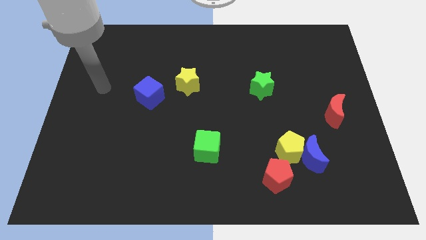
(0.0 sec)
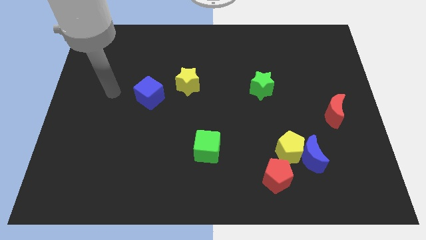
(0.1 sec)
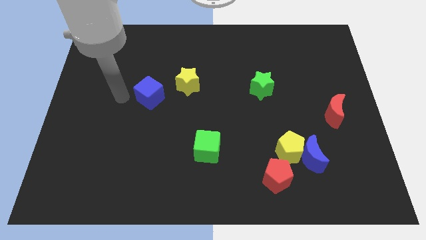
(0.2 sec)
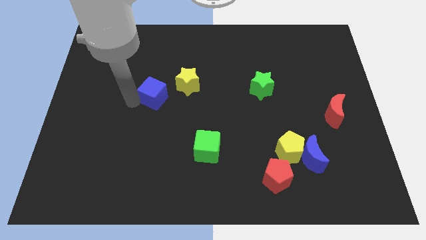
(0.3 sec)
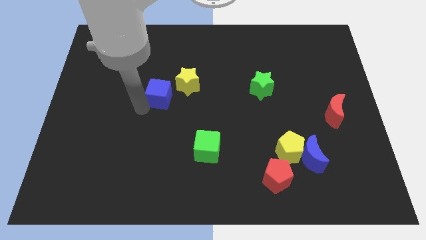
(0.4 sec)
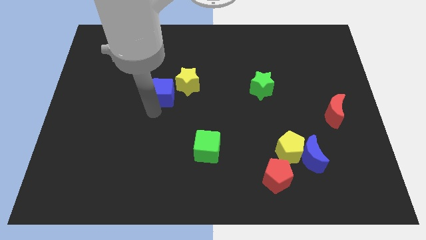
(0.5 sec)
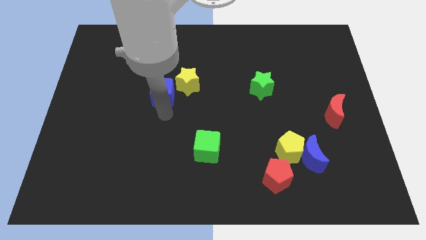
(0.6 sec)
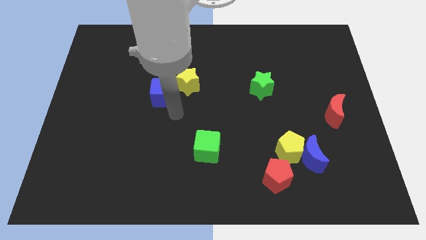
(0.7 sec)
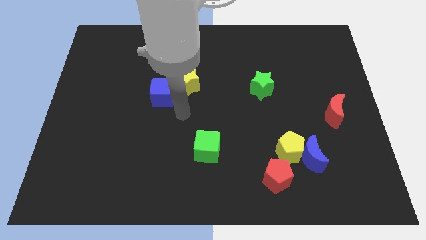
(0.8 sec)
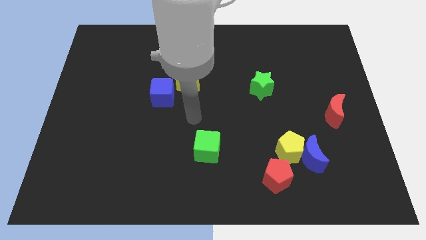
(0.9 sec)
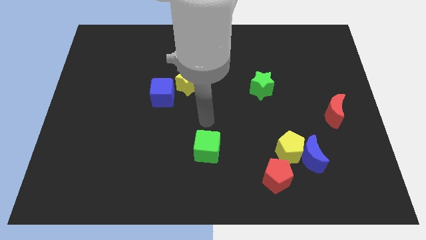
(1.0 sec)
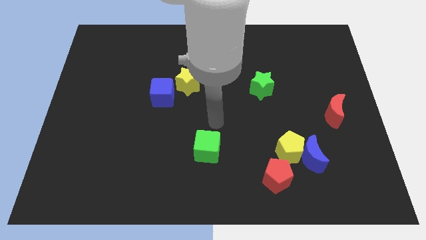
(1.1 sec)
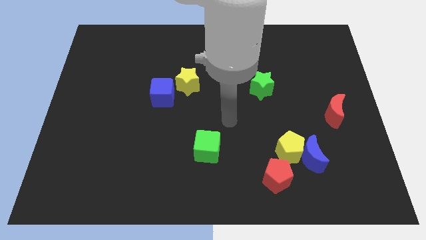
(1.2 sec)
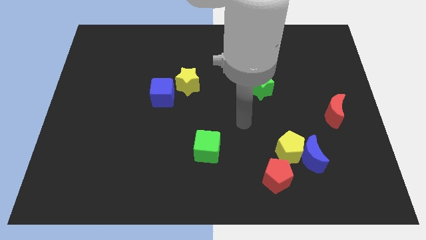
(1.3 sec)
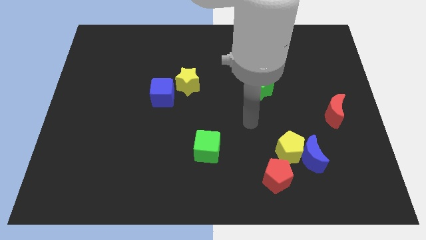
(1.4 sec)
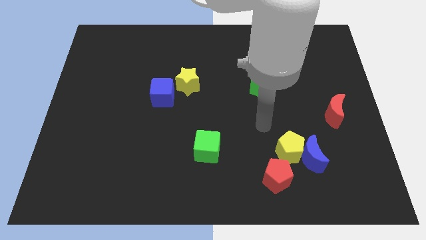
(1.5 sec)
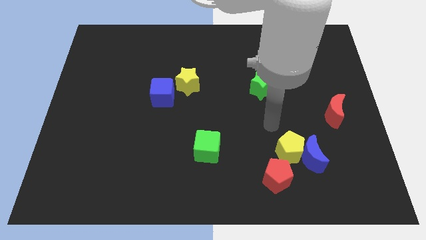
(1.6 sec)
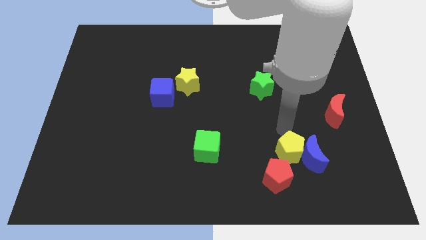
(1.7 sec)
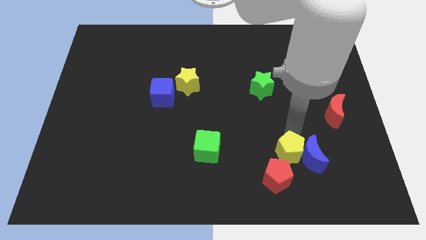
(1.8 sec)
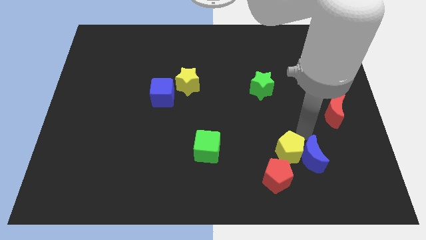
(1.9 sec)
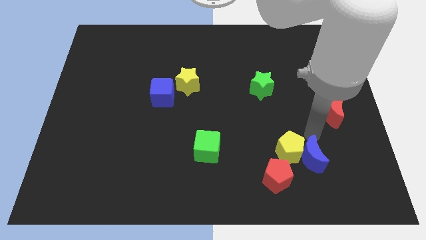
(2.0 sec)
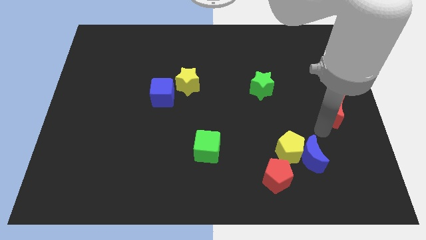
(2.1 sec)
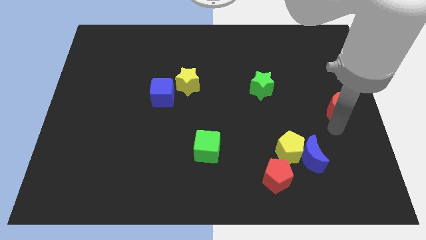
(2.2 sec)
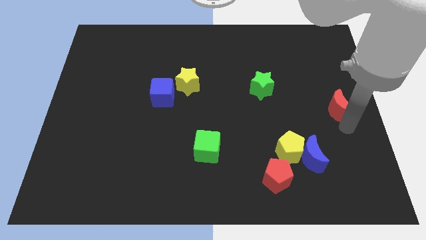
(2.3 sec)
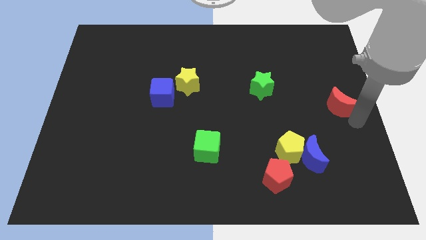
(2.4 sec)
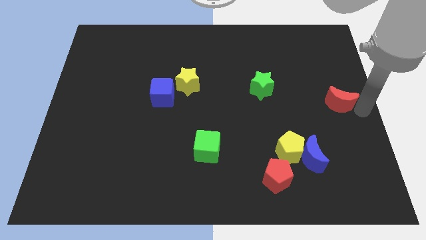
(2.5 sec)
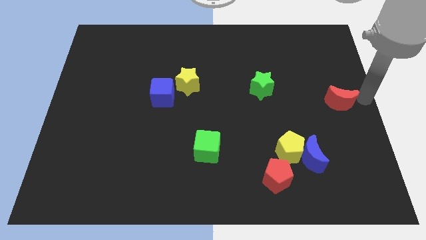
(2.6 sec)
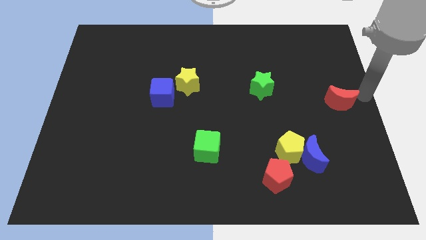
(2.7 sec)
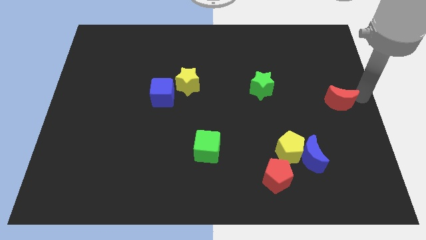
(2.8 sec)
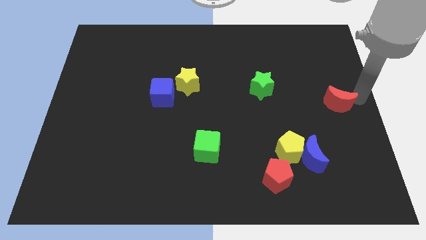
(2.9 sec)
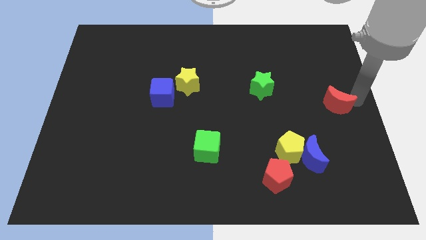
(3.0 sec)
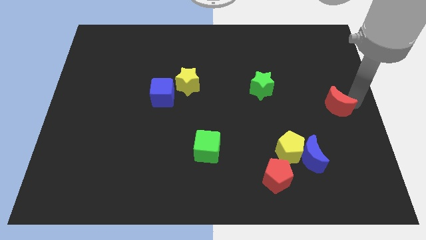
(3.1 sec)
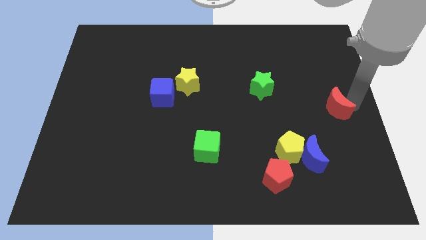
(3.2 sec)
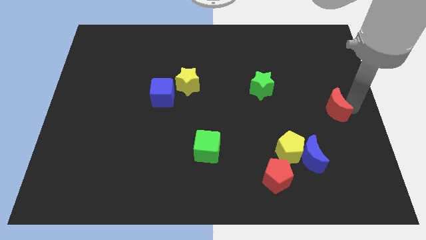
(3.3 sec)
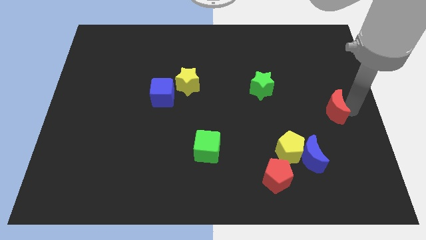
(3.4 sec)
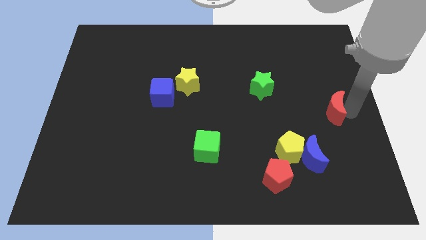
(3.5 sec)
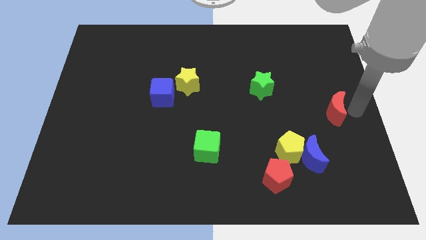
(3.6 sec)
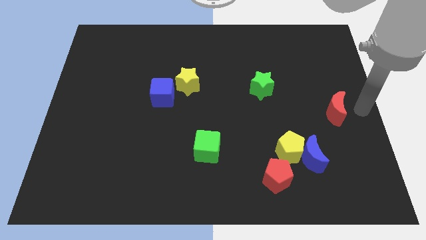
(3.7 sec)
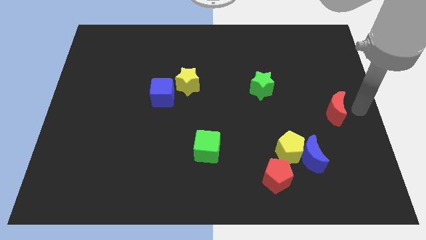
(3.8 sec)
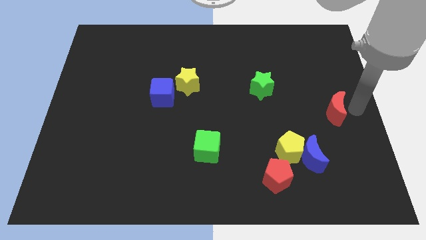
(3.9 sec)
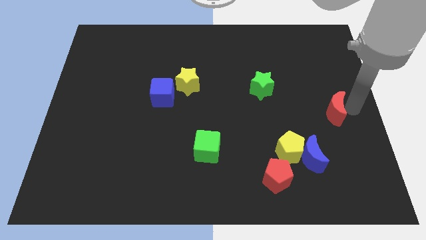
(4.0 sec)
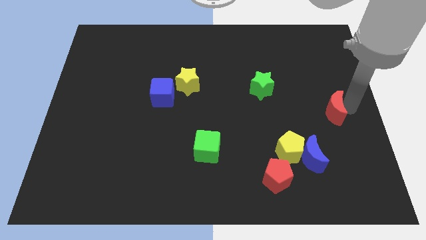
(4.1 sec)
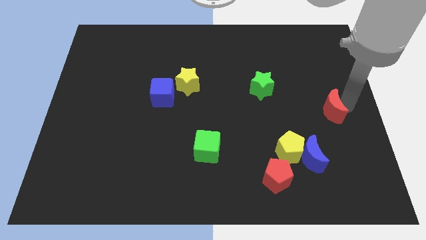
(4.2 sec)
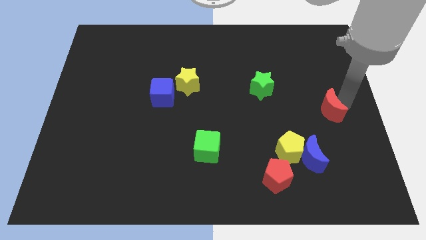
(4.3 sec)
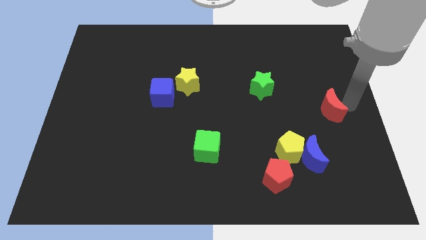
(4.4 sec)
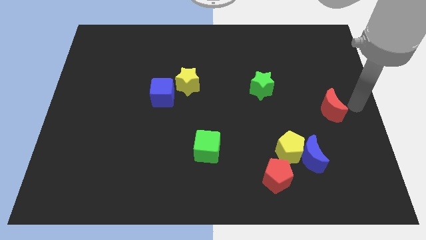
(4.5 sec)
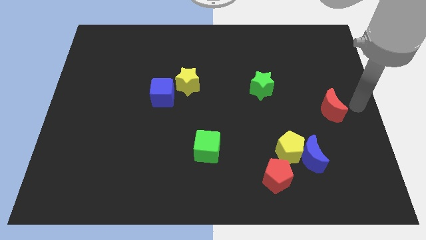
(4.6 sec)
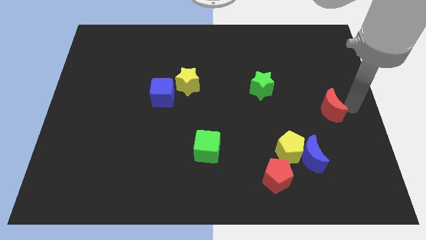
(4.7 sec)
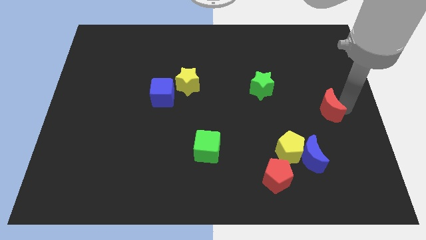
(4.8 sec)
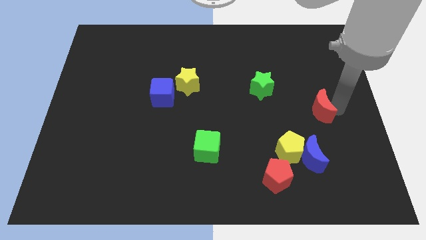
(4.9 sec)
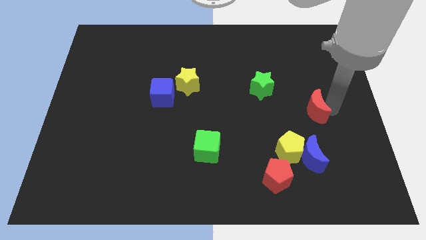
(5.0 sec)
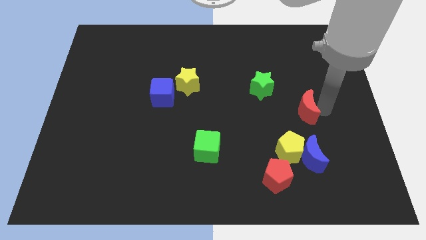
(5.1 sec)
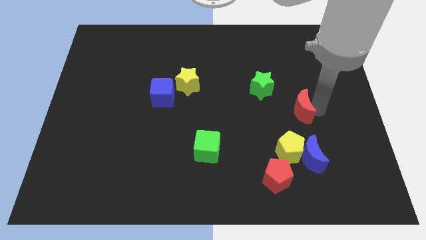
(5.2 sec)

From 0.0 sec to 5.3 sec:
slightly slide the red moon left

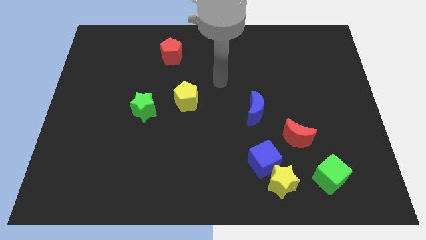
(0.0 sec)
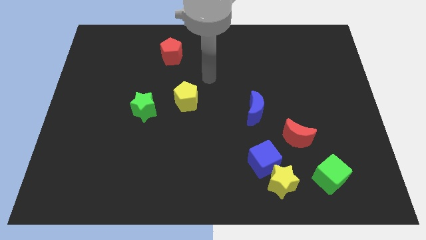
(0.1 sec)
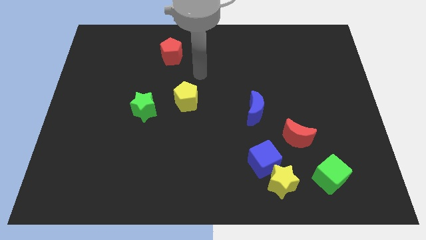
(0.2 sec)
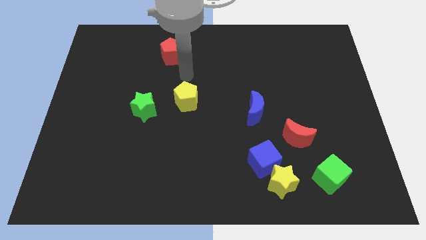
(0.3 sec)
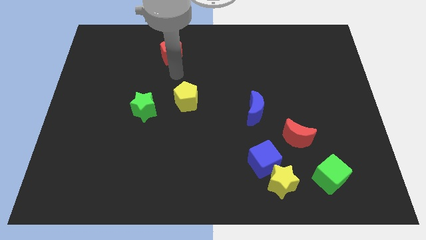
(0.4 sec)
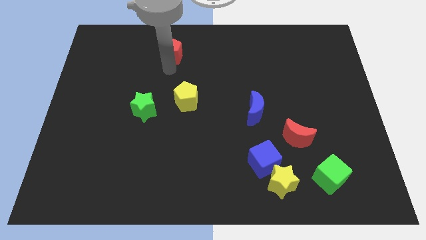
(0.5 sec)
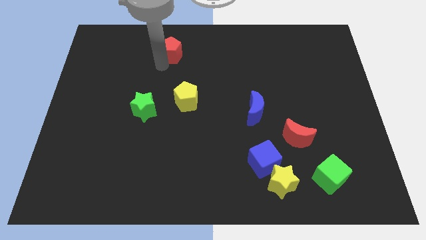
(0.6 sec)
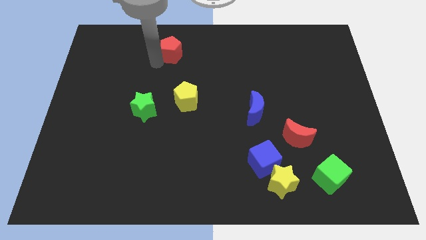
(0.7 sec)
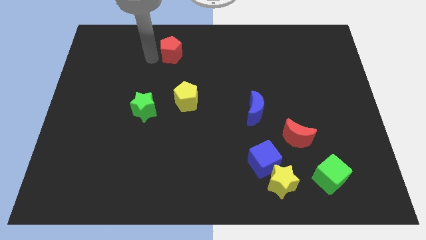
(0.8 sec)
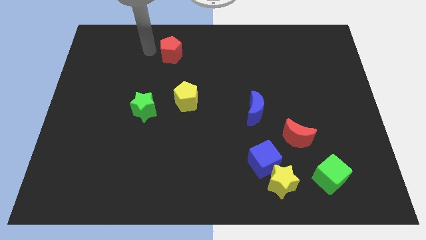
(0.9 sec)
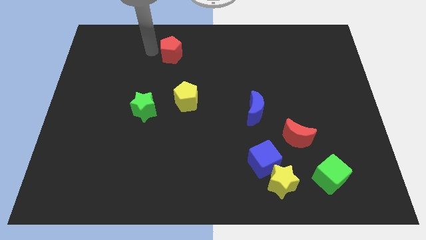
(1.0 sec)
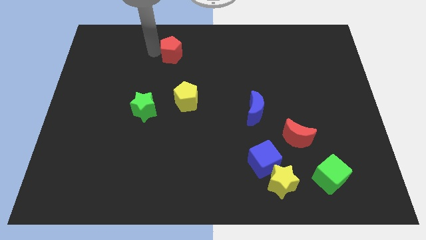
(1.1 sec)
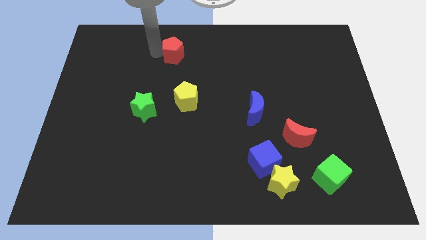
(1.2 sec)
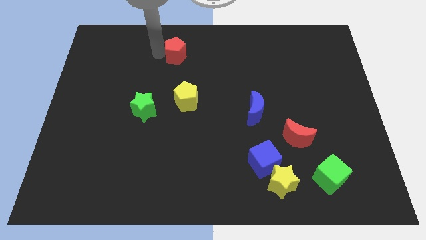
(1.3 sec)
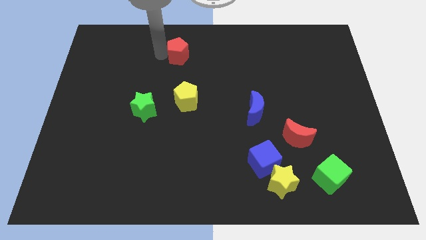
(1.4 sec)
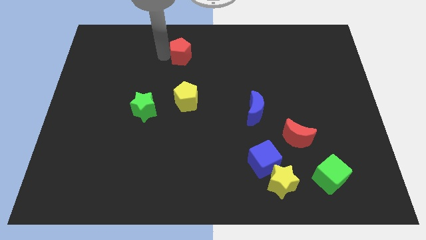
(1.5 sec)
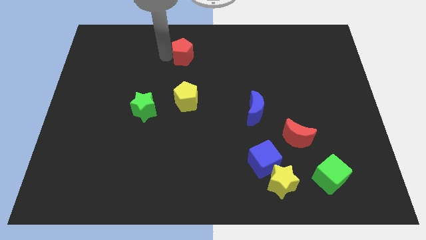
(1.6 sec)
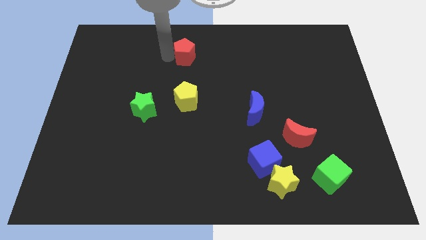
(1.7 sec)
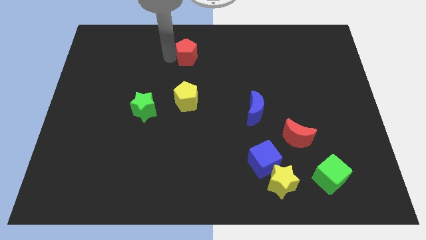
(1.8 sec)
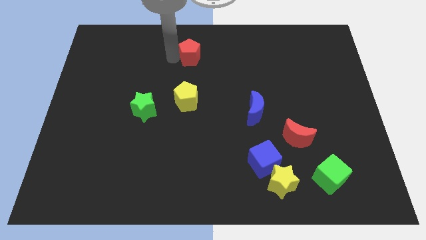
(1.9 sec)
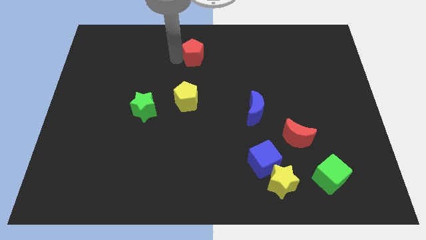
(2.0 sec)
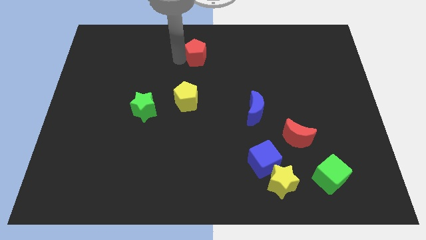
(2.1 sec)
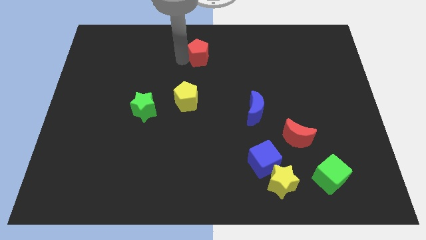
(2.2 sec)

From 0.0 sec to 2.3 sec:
move the red pentagon right a bit

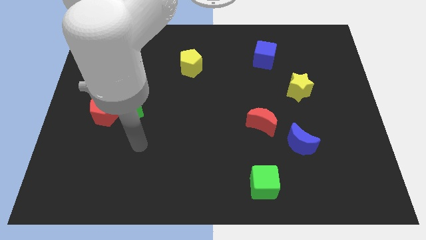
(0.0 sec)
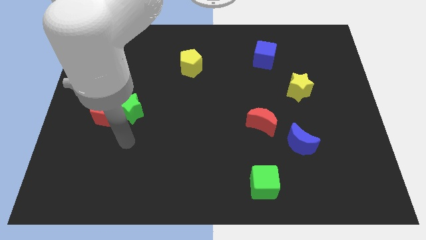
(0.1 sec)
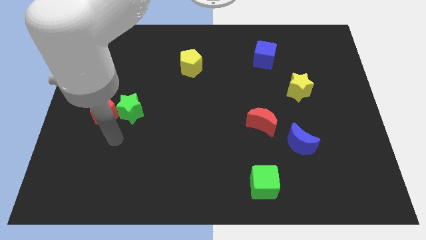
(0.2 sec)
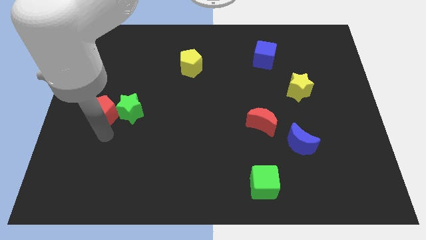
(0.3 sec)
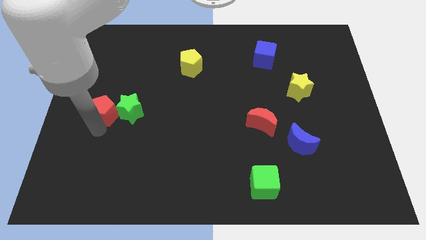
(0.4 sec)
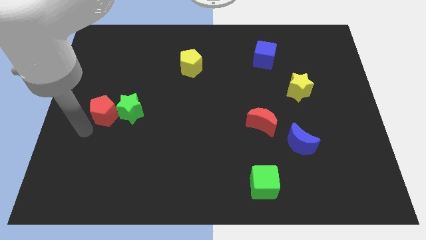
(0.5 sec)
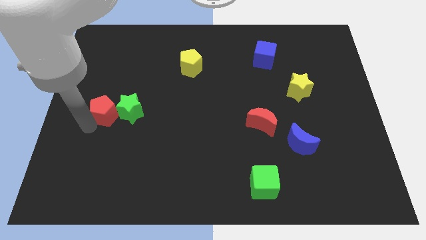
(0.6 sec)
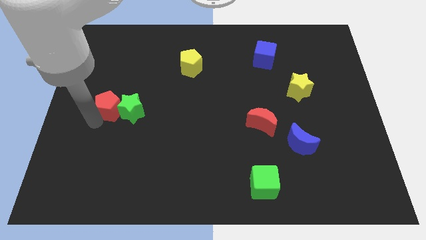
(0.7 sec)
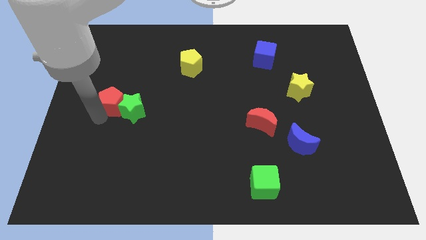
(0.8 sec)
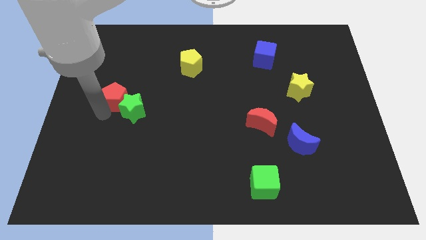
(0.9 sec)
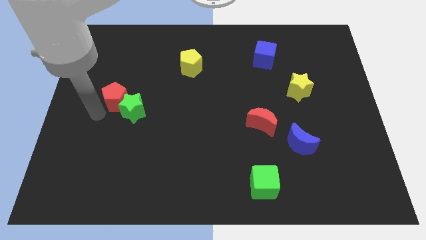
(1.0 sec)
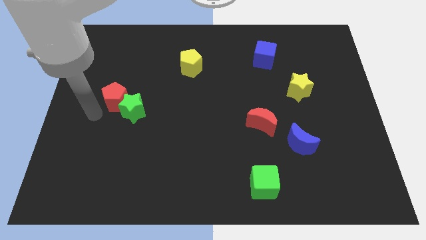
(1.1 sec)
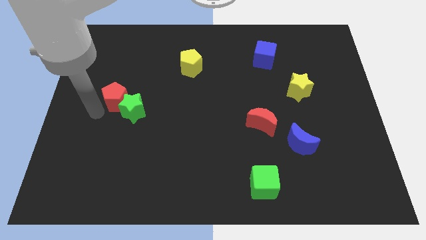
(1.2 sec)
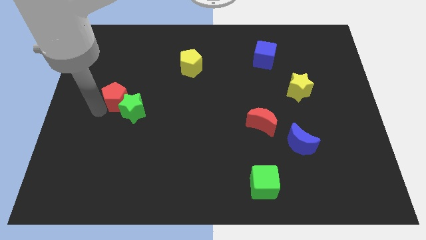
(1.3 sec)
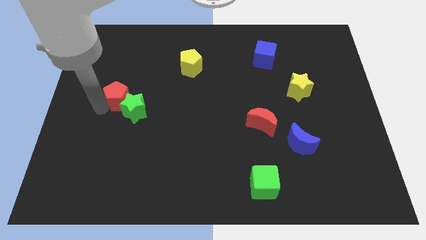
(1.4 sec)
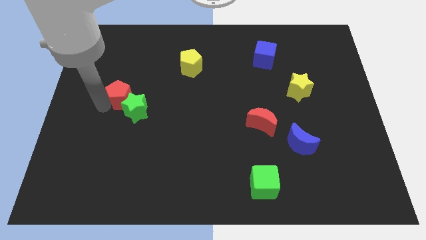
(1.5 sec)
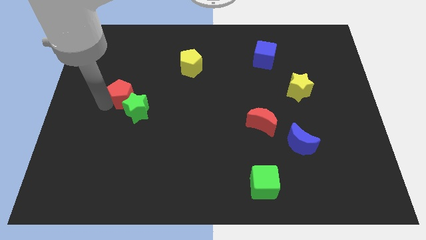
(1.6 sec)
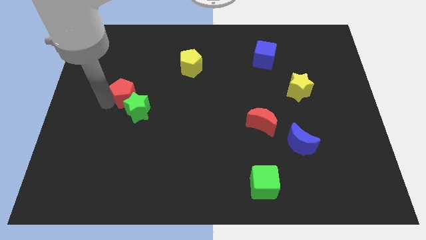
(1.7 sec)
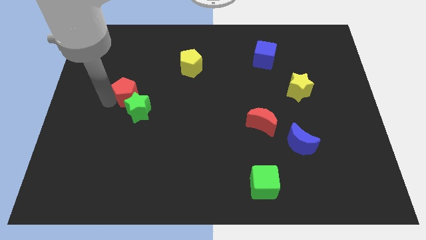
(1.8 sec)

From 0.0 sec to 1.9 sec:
push the red pentagon somewhat up and to the right
